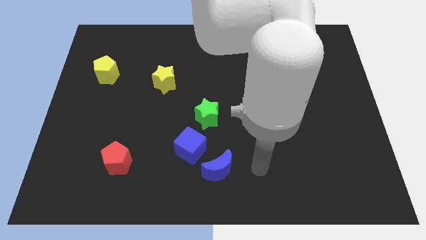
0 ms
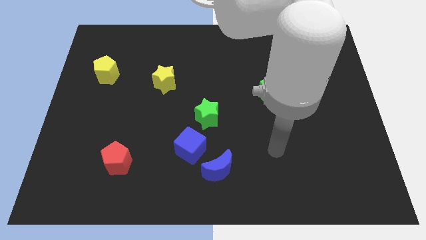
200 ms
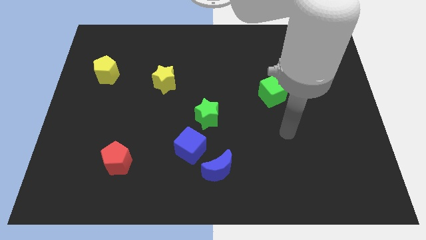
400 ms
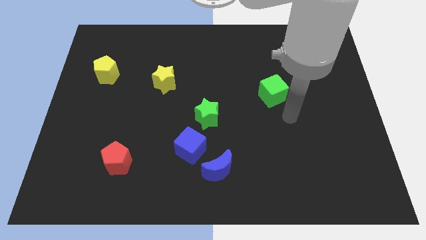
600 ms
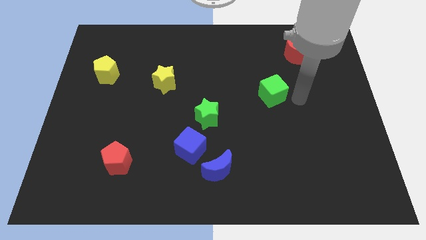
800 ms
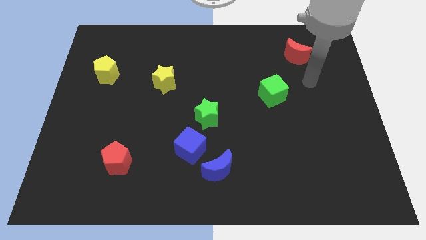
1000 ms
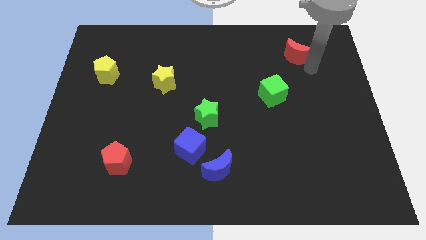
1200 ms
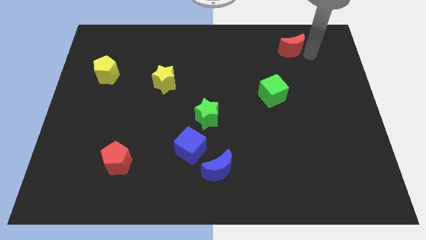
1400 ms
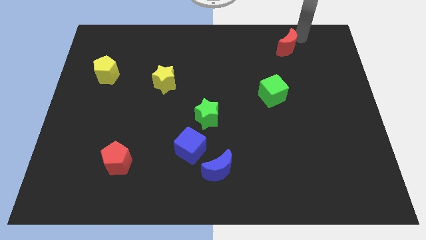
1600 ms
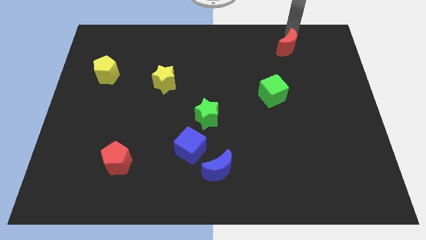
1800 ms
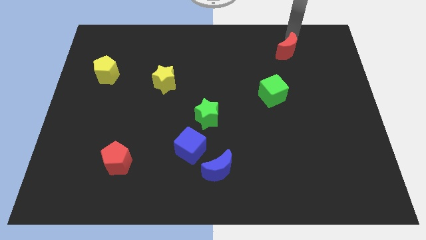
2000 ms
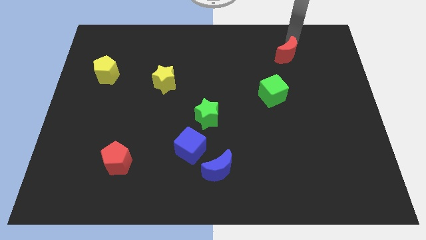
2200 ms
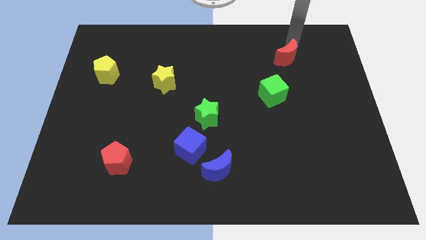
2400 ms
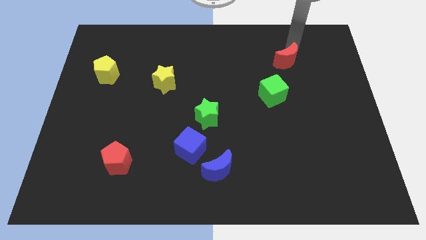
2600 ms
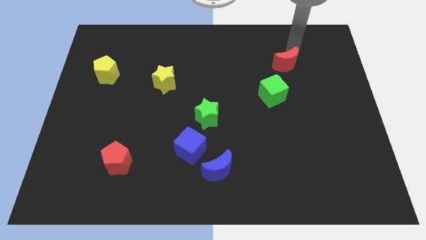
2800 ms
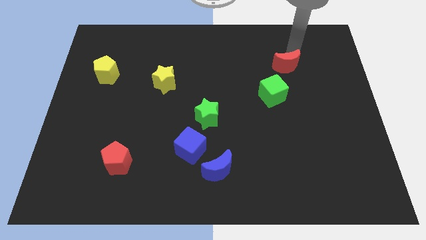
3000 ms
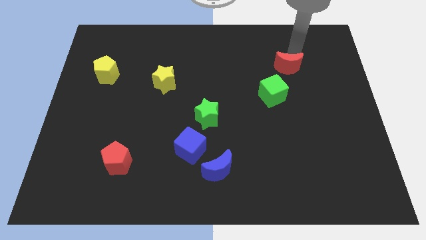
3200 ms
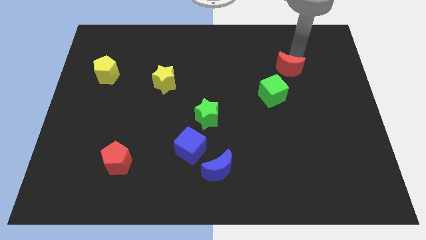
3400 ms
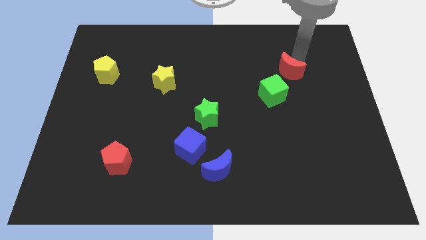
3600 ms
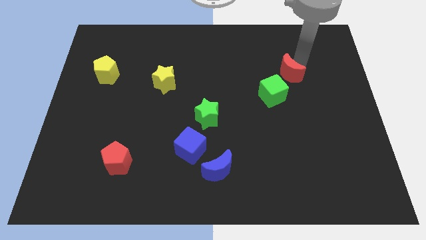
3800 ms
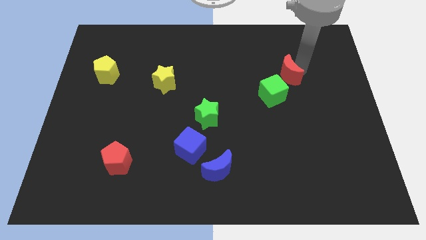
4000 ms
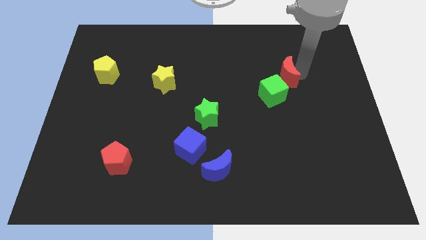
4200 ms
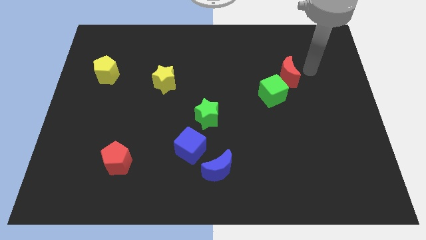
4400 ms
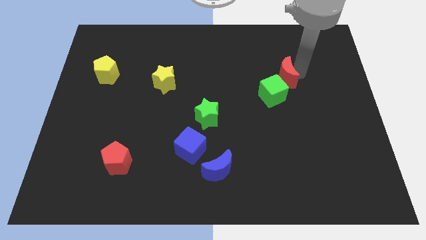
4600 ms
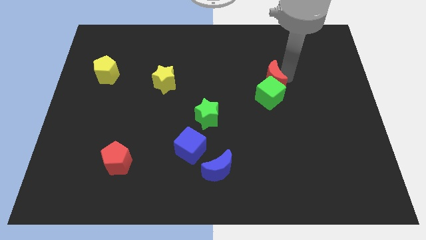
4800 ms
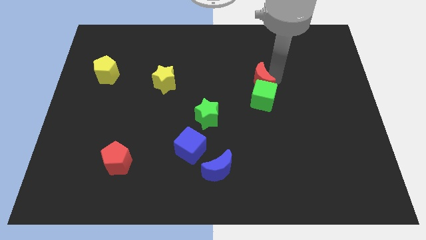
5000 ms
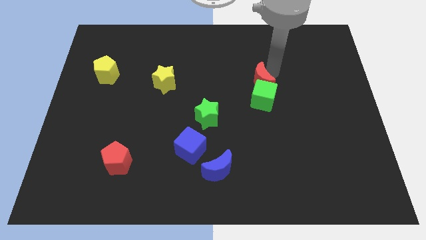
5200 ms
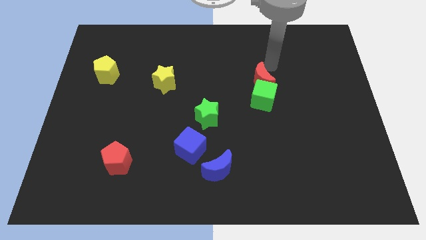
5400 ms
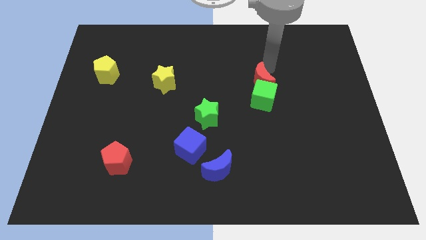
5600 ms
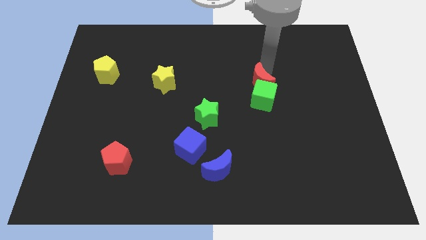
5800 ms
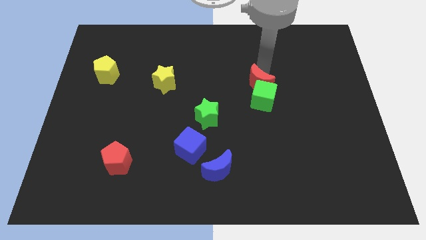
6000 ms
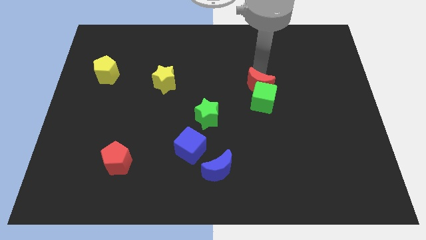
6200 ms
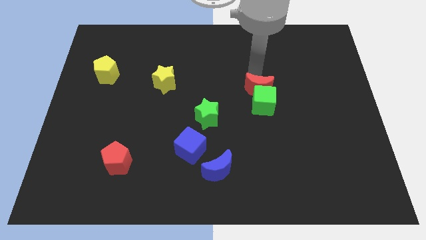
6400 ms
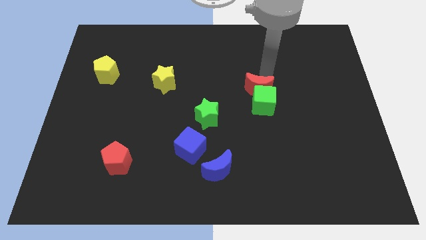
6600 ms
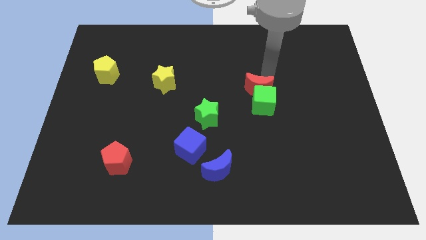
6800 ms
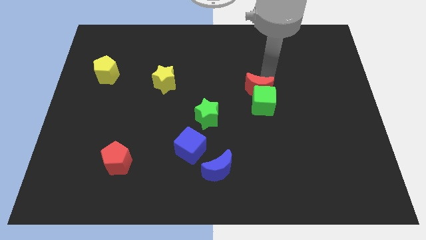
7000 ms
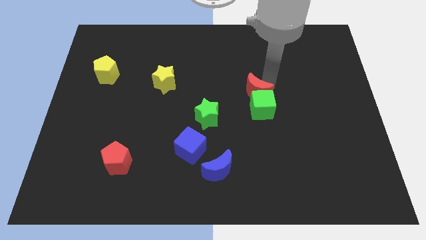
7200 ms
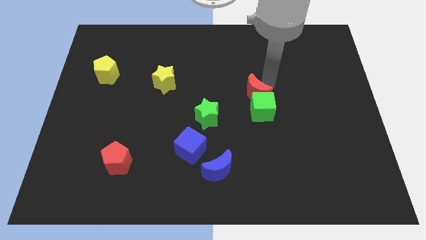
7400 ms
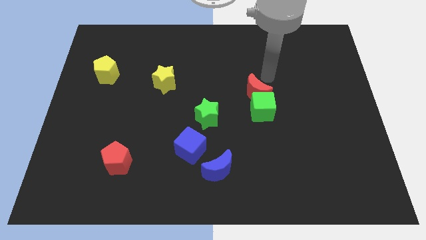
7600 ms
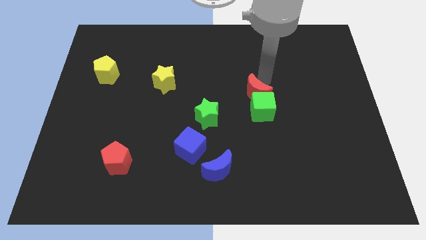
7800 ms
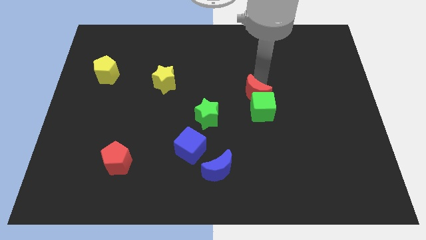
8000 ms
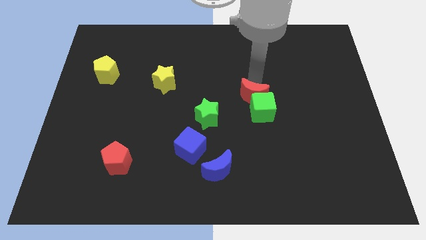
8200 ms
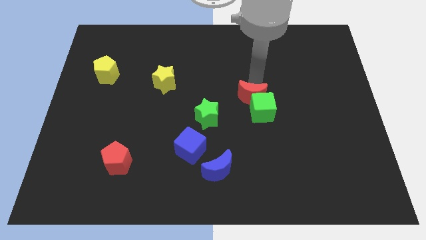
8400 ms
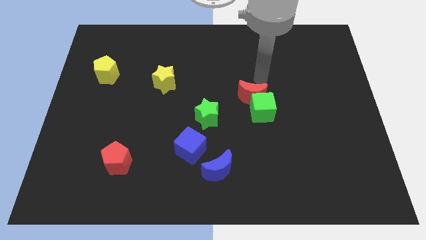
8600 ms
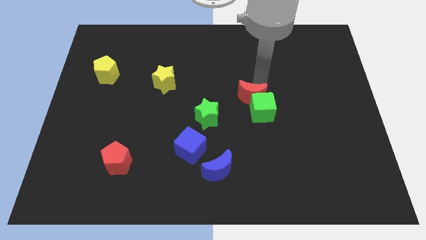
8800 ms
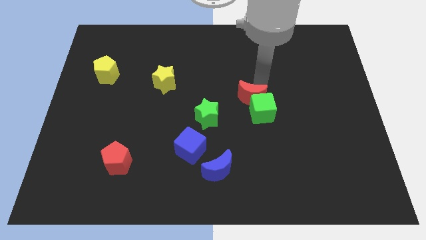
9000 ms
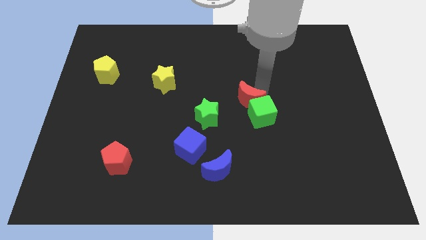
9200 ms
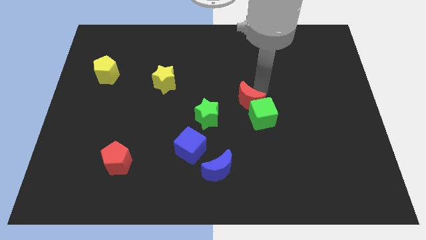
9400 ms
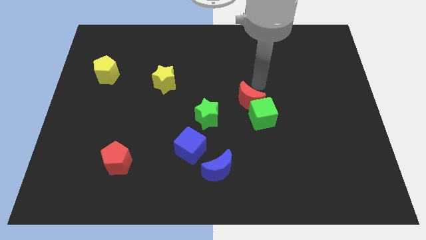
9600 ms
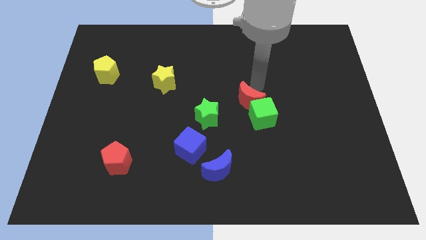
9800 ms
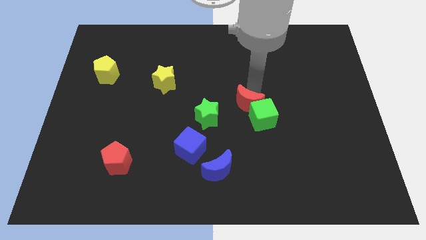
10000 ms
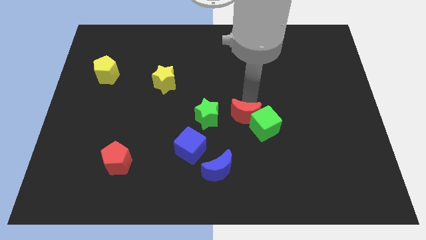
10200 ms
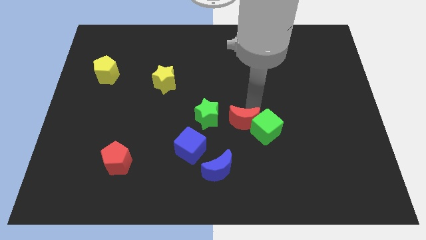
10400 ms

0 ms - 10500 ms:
move the red moon diagonally down and to the right of the green star
